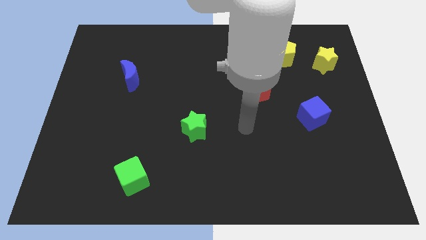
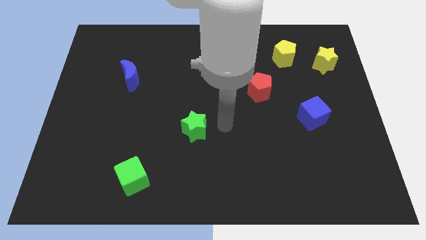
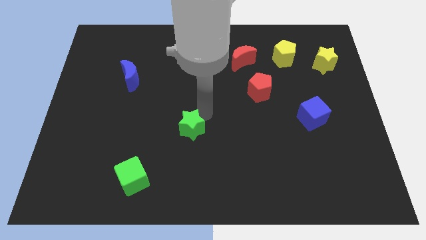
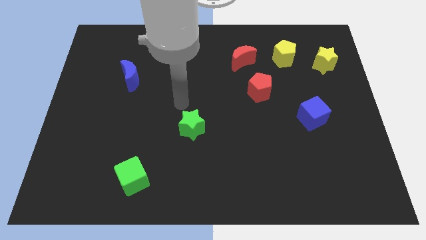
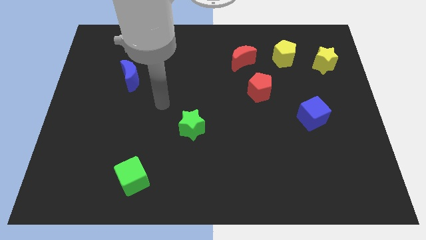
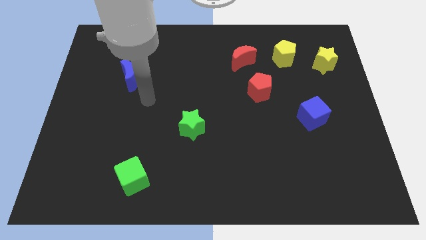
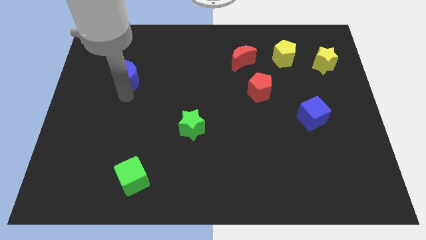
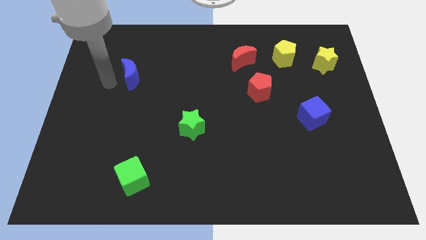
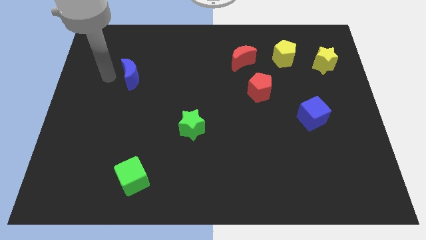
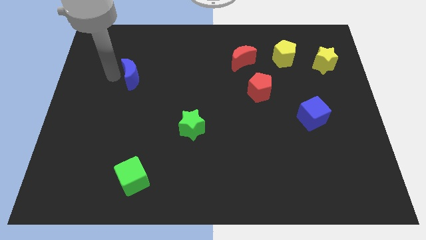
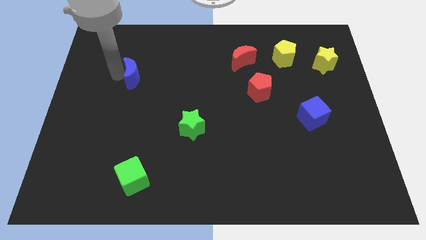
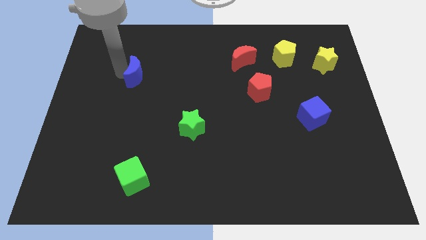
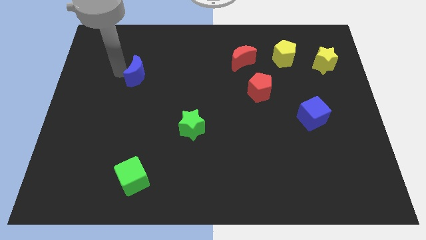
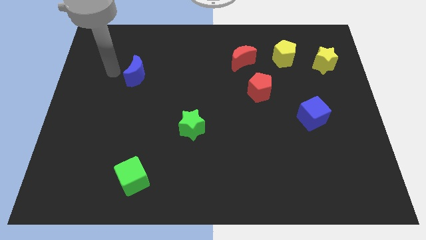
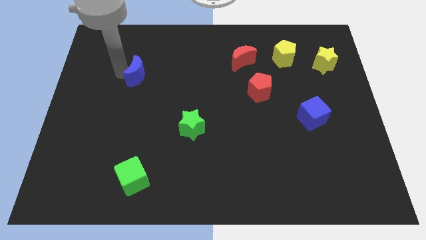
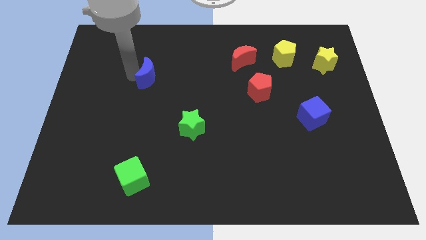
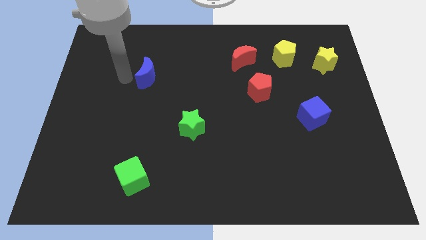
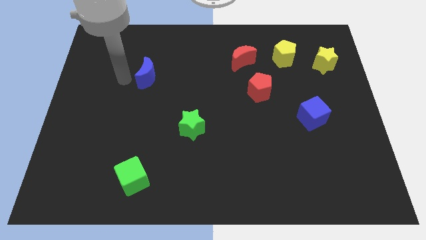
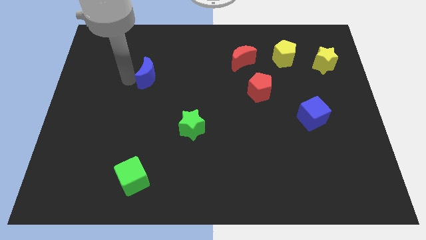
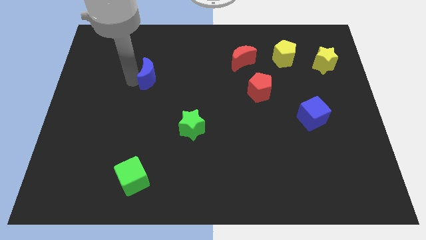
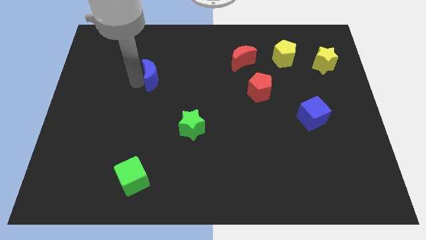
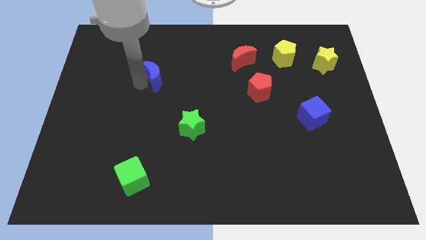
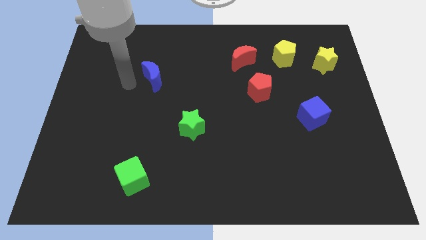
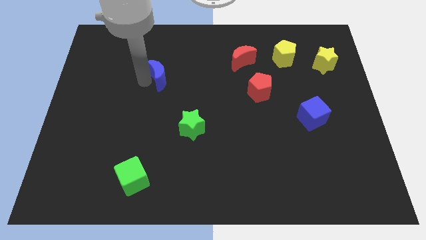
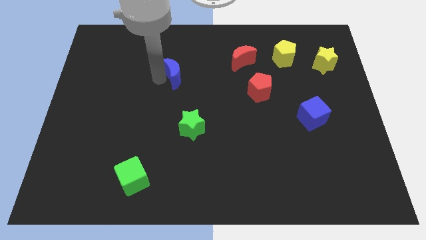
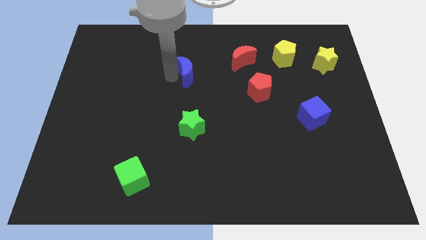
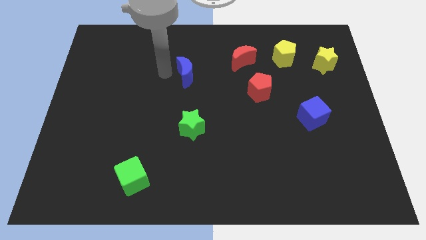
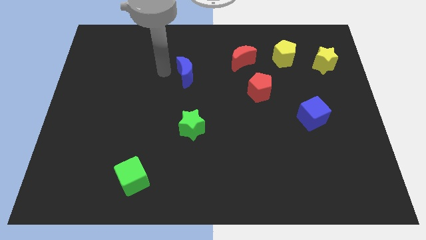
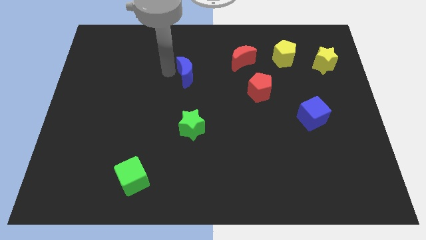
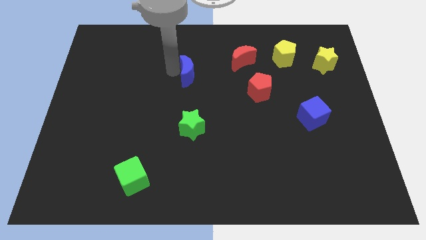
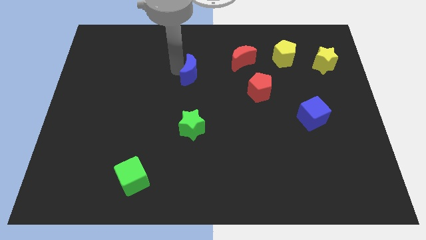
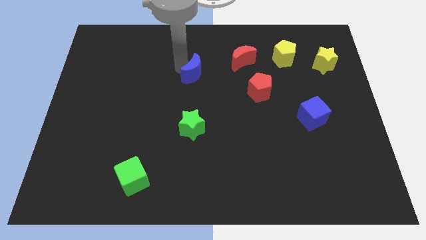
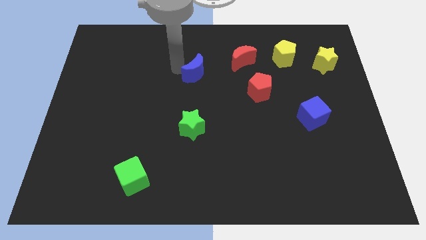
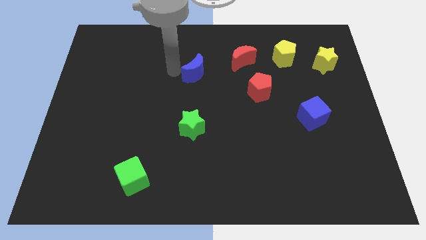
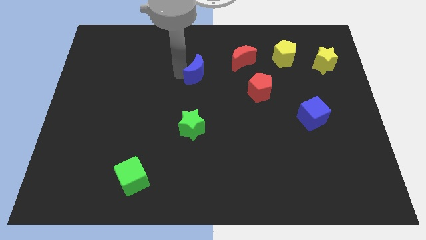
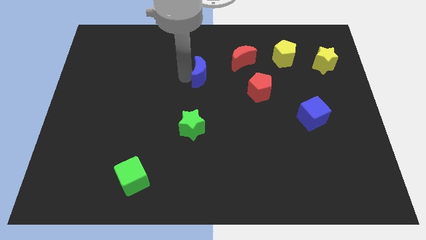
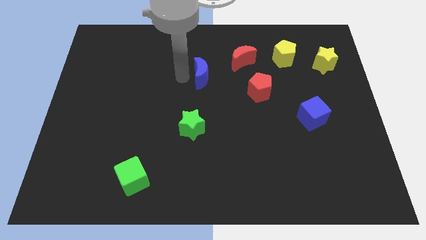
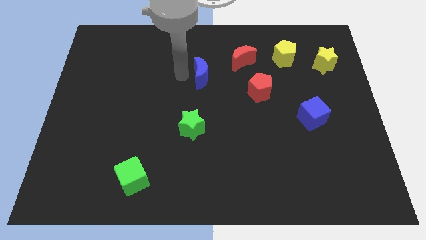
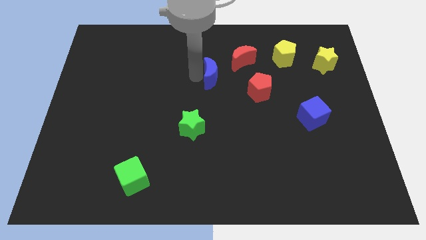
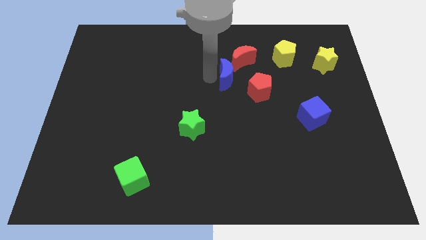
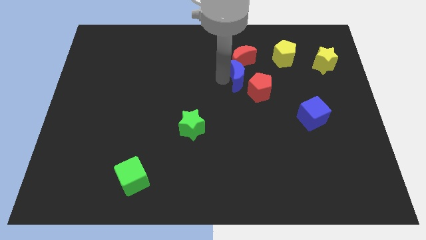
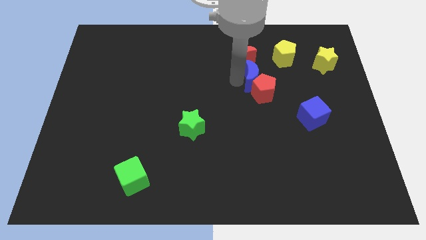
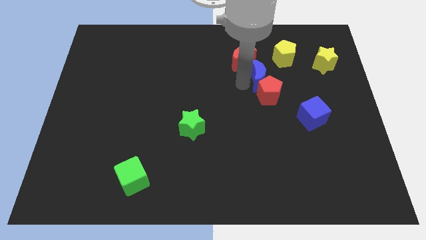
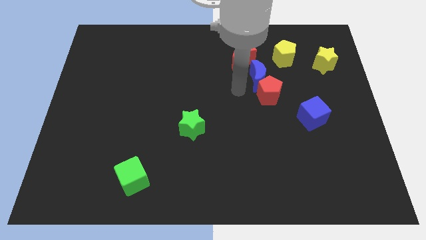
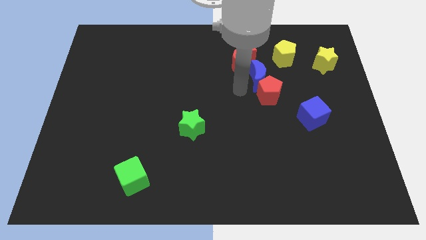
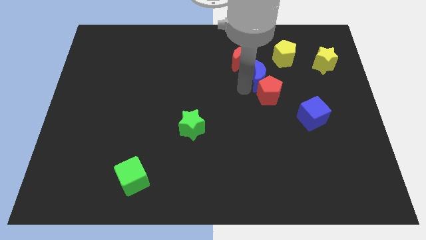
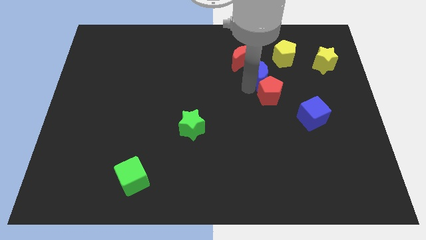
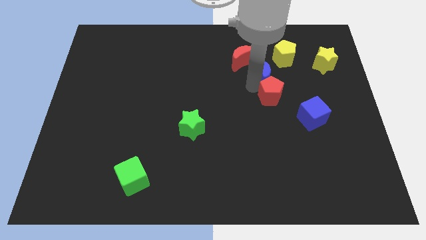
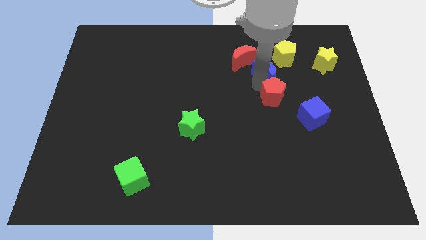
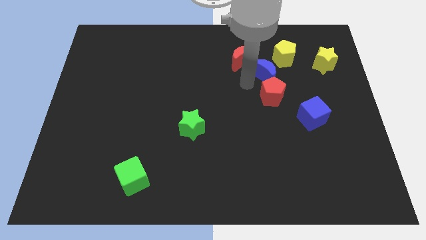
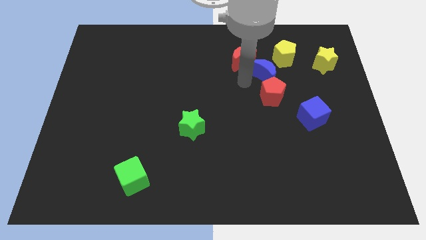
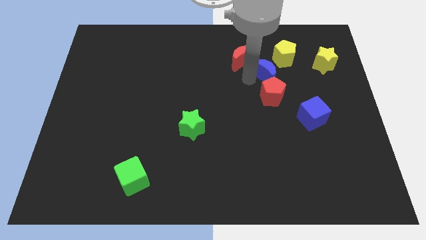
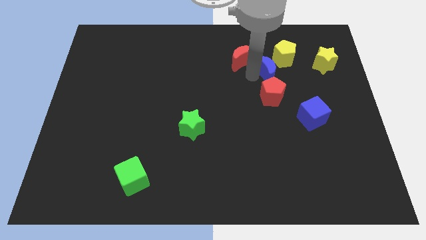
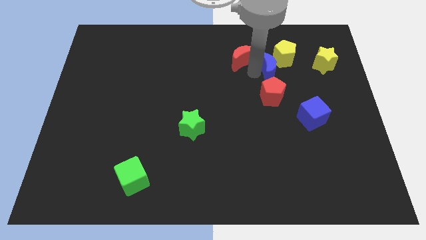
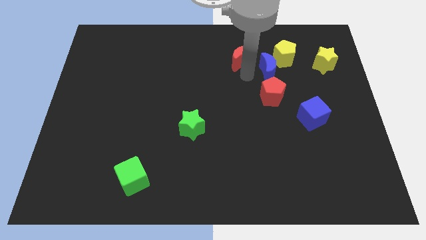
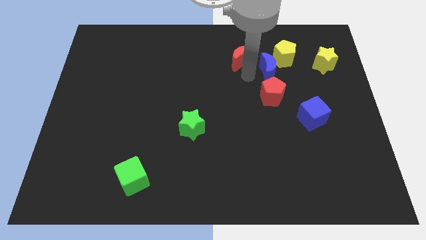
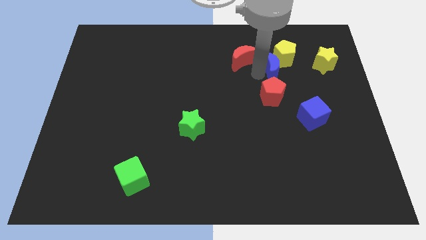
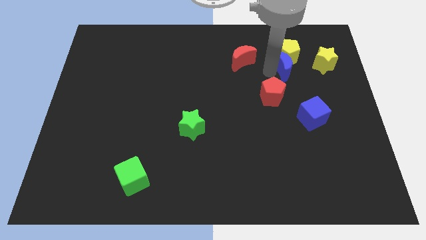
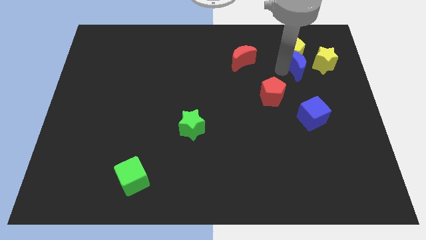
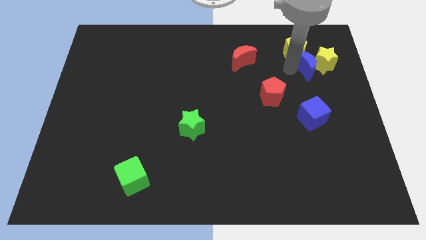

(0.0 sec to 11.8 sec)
slide the blue moon close to the yellow star

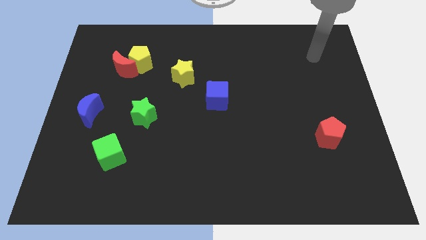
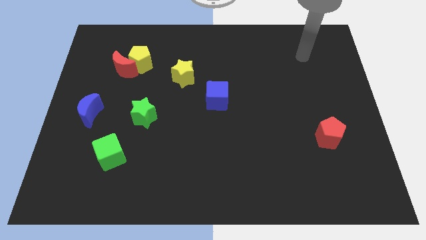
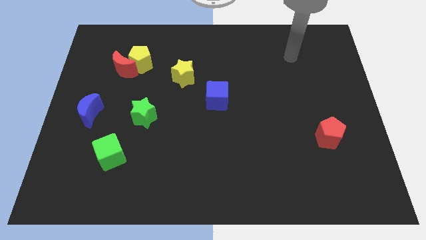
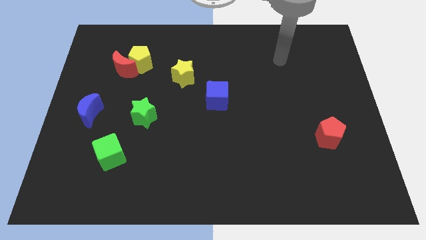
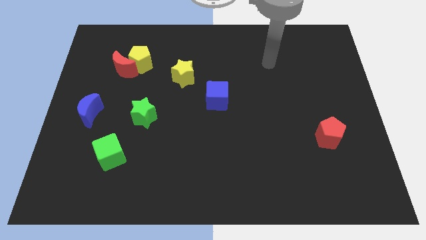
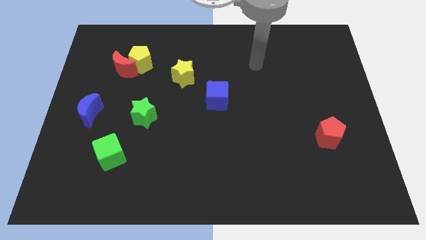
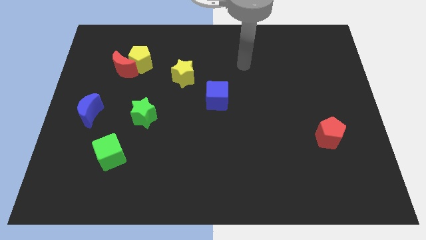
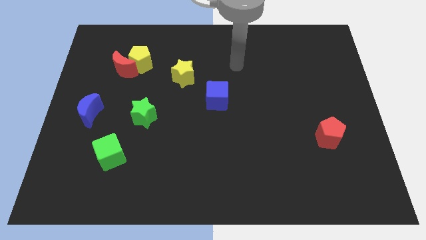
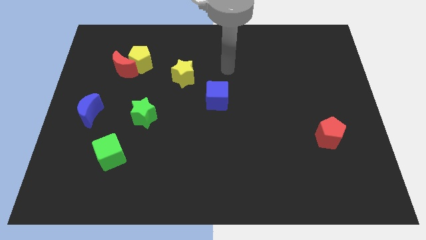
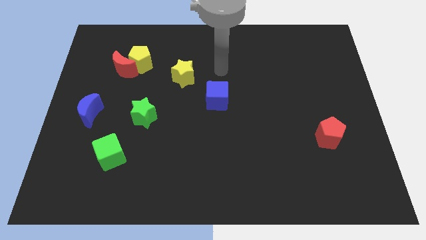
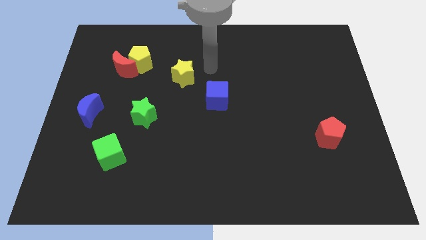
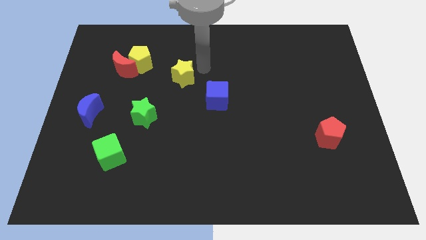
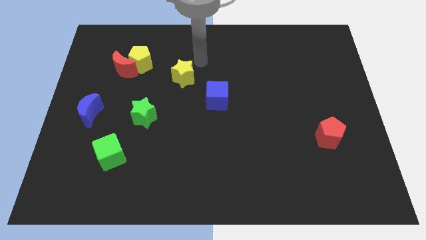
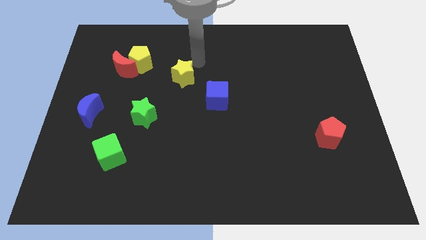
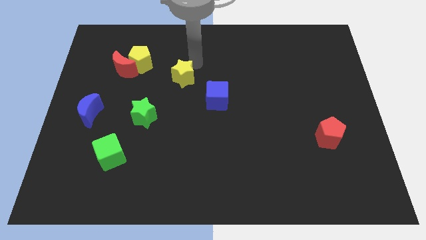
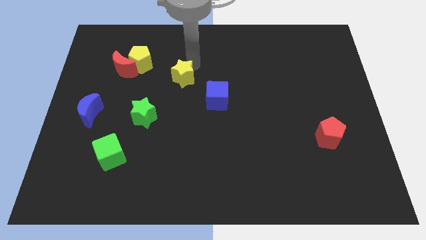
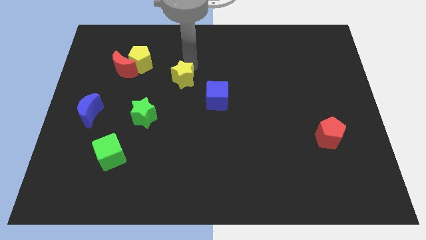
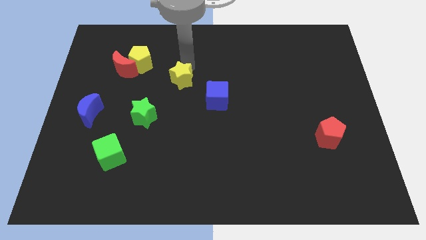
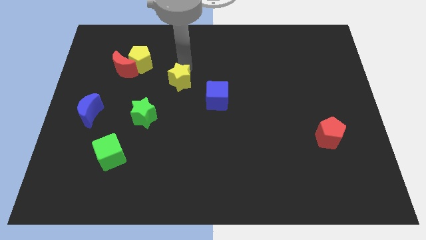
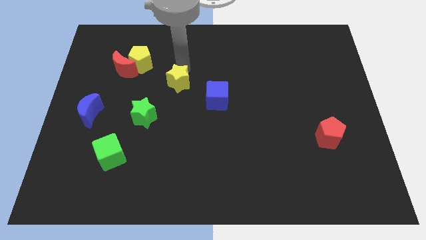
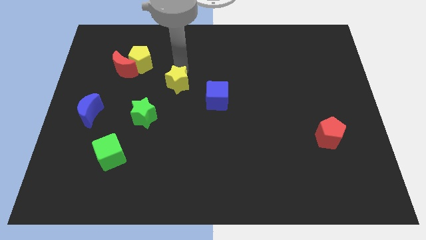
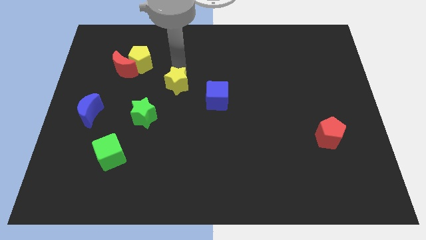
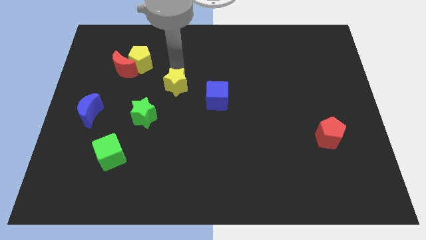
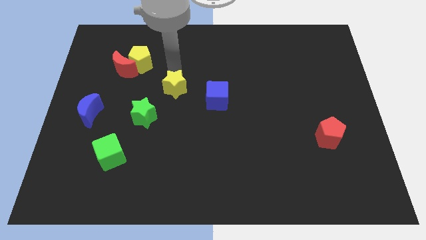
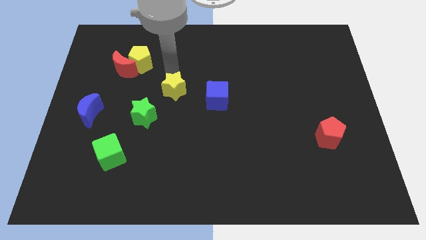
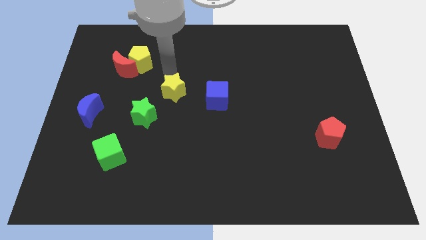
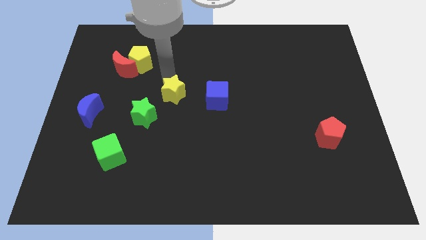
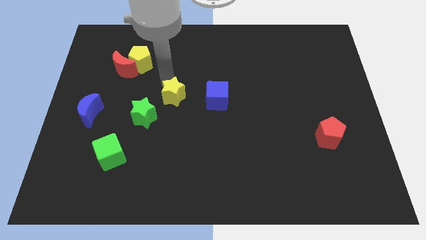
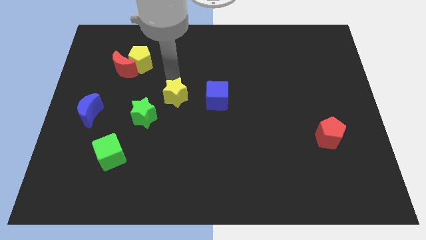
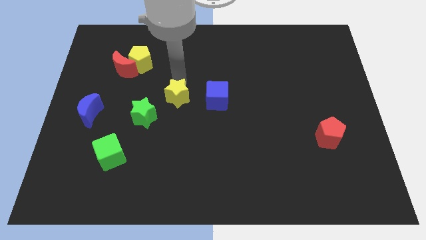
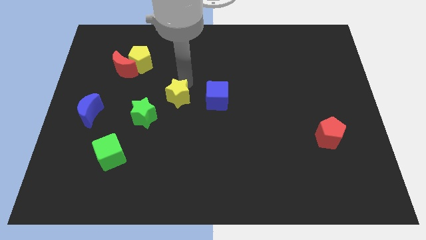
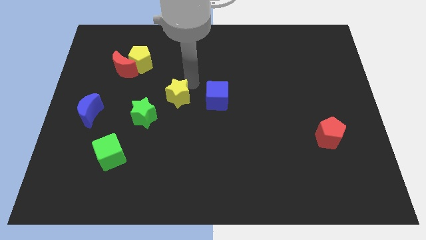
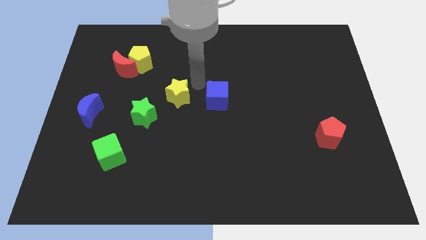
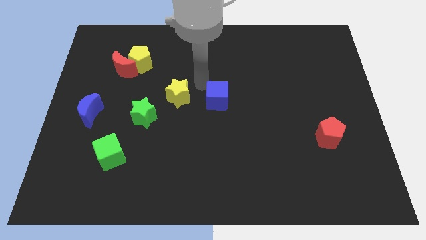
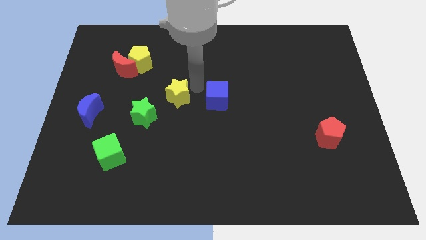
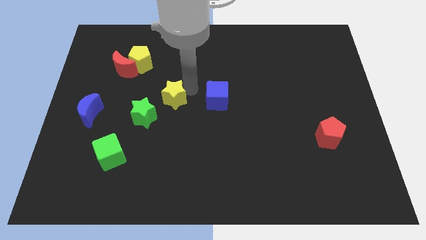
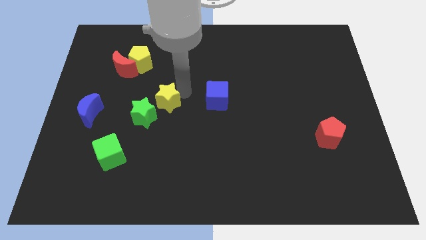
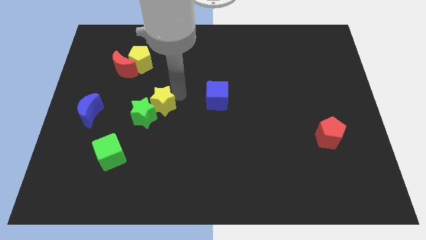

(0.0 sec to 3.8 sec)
put the yellow star close to the green star
